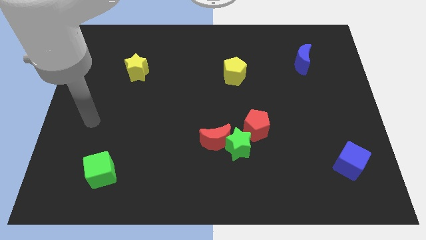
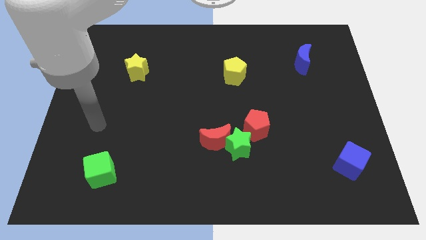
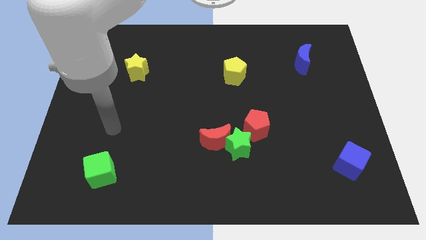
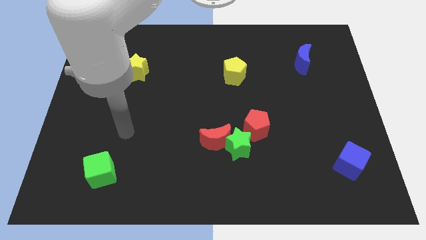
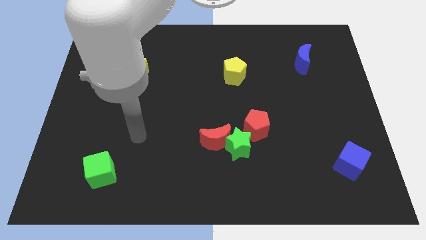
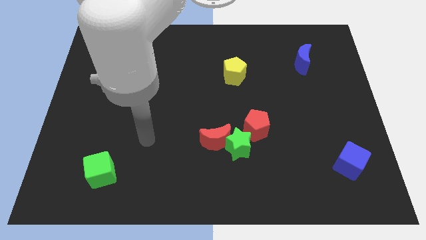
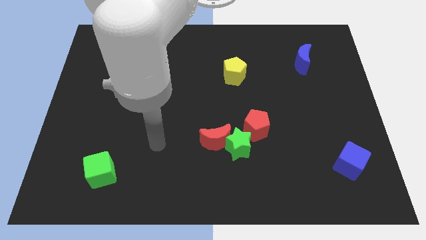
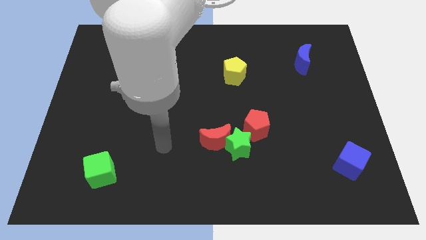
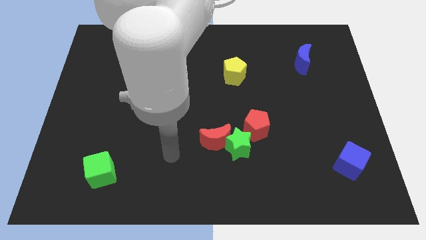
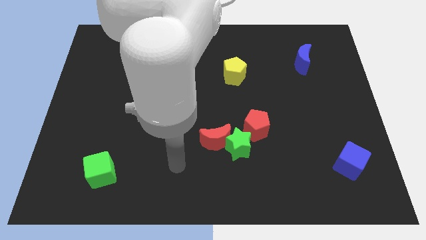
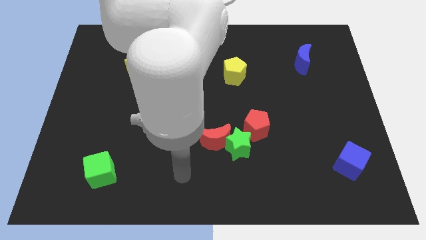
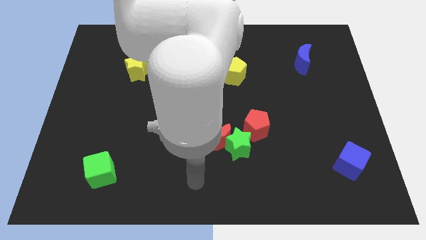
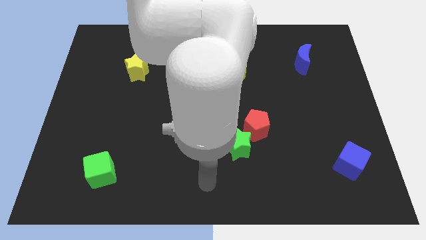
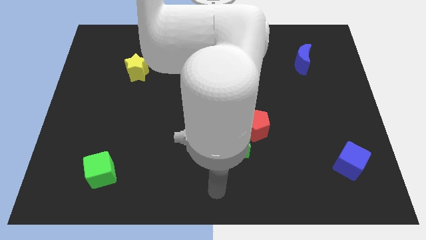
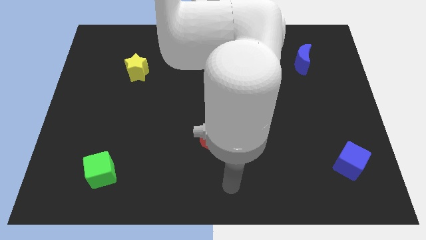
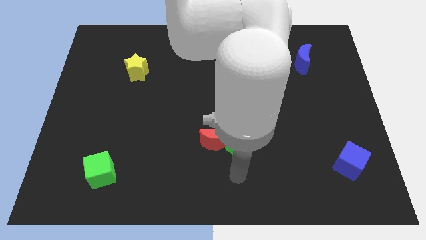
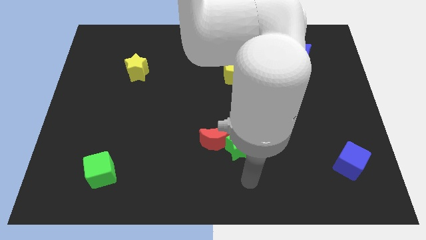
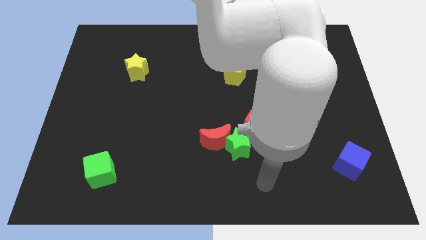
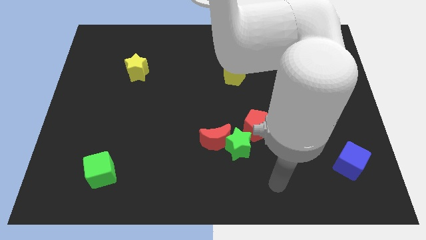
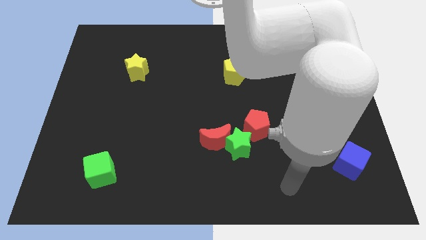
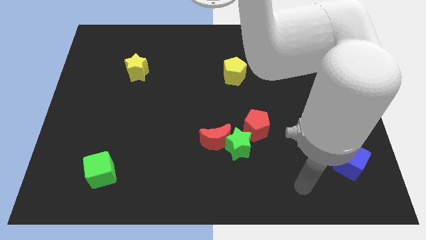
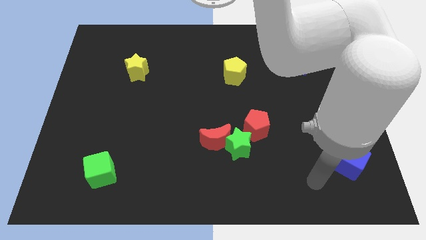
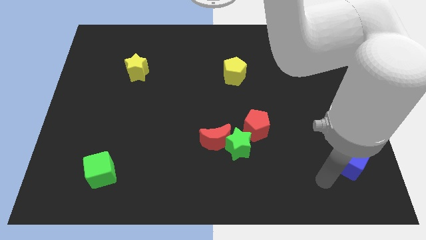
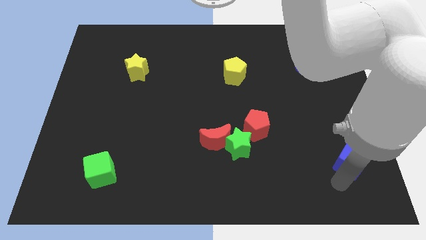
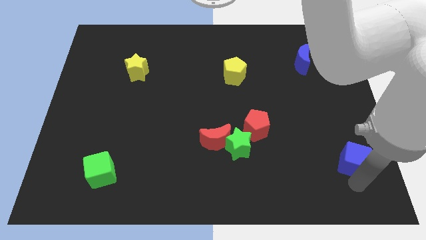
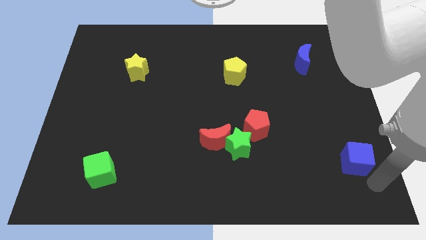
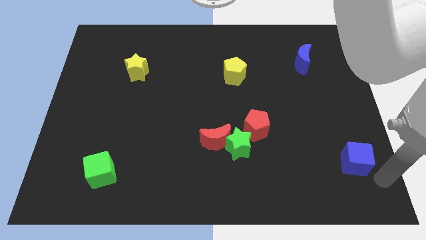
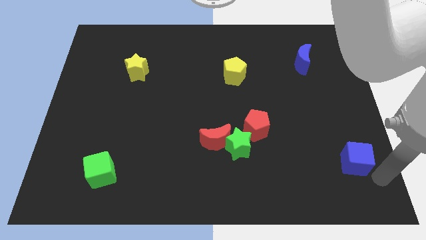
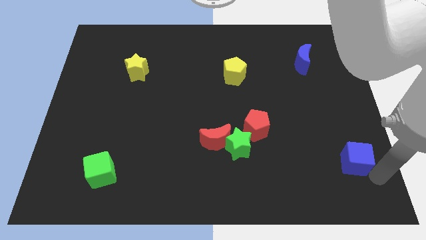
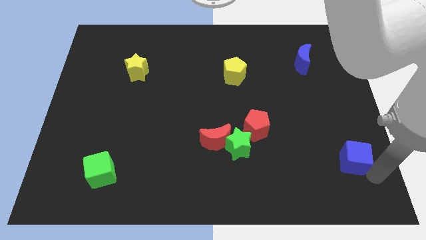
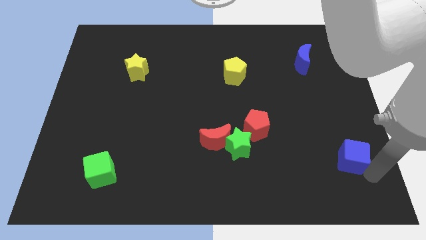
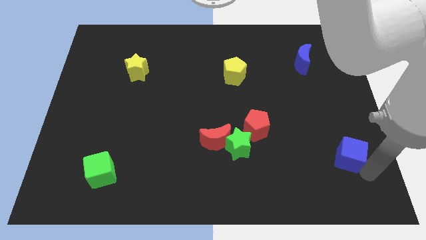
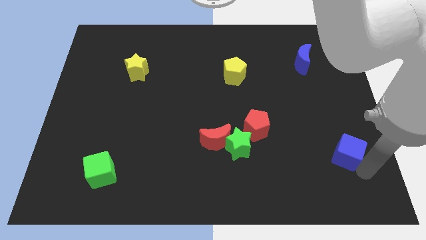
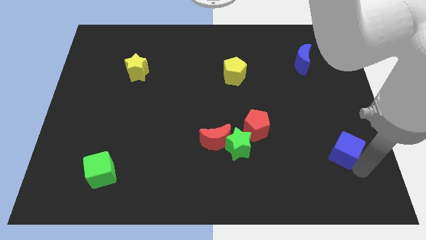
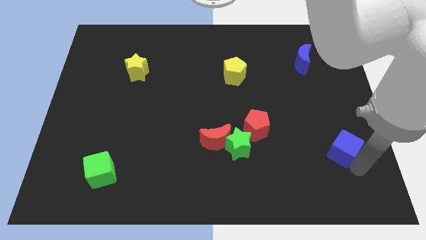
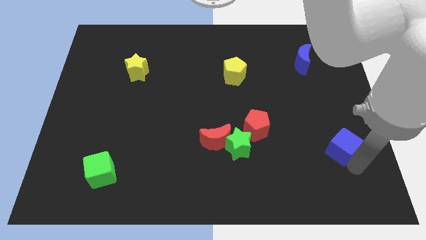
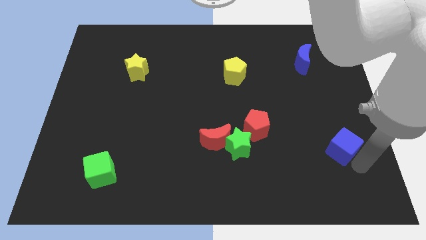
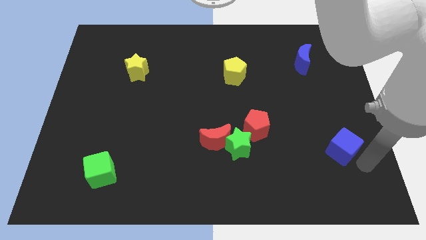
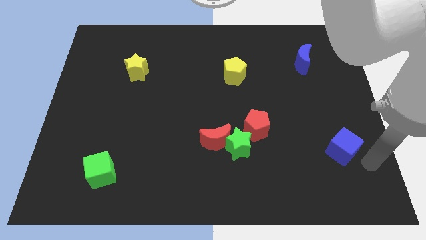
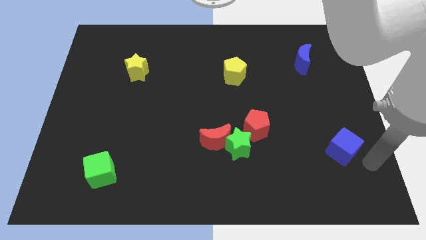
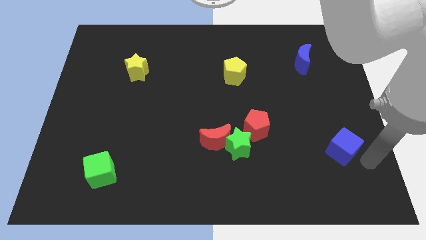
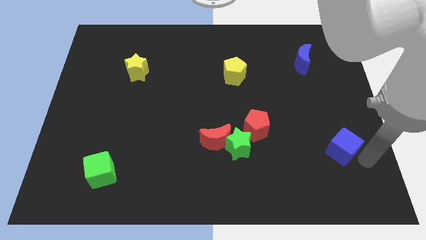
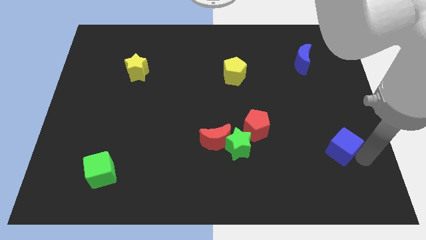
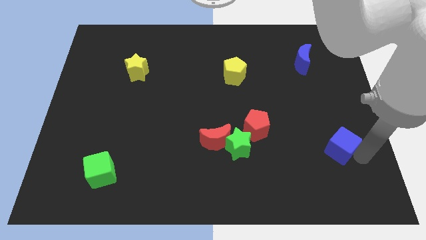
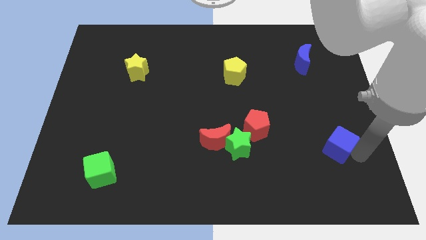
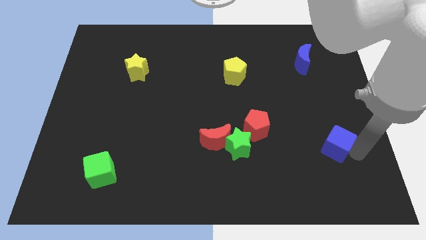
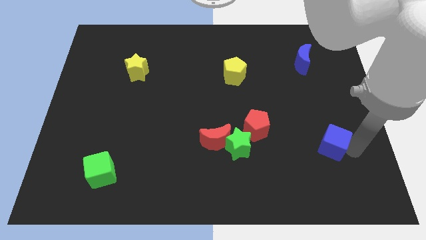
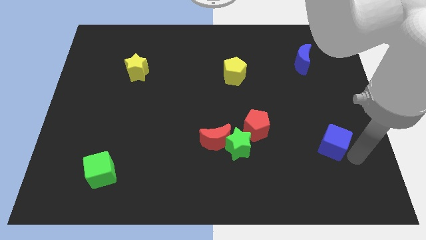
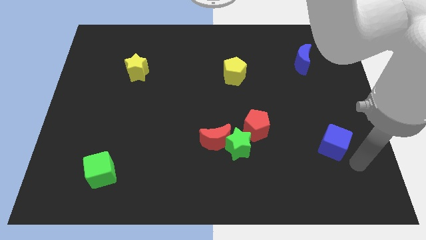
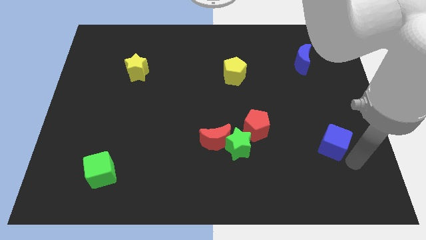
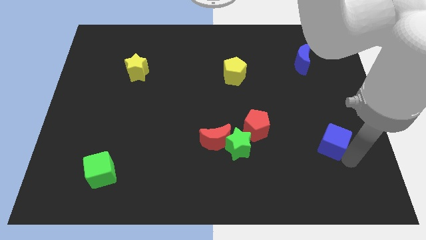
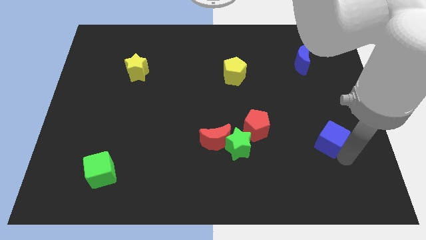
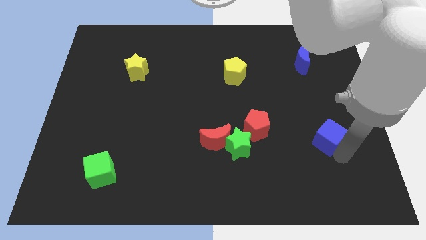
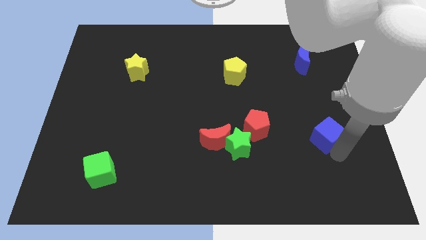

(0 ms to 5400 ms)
move the blue cube somewhat upwards and left

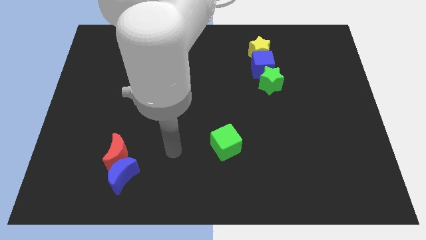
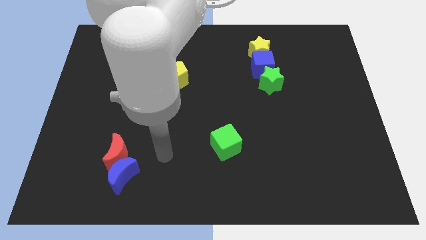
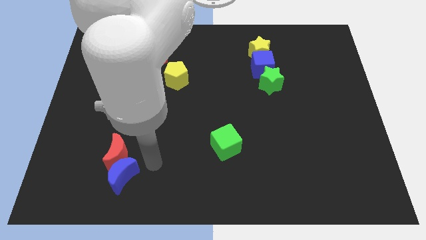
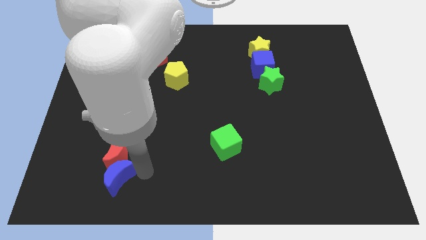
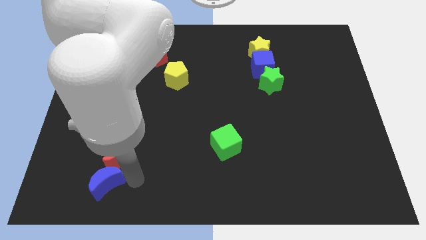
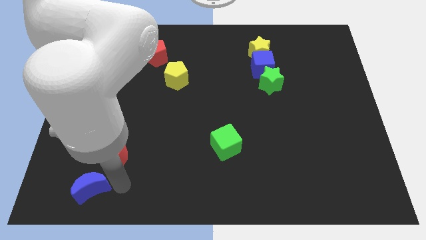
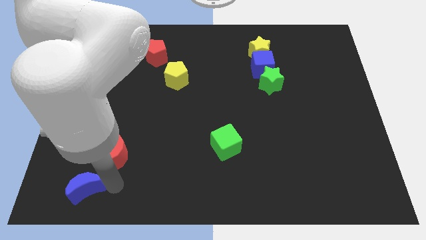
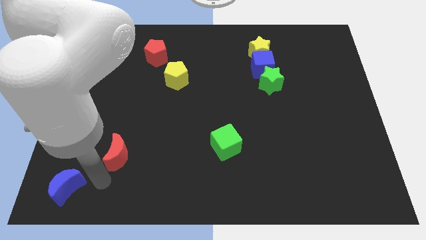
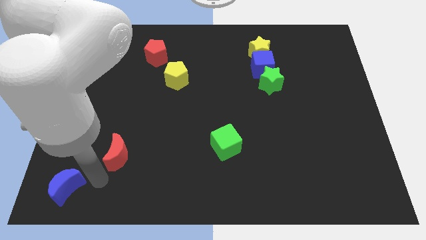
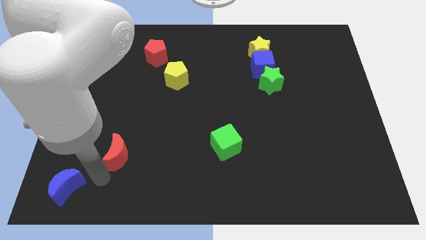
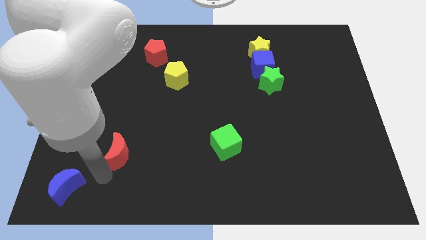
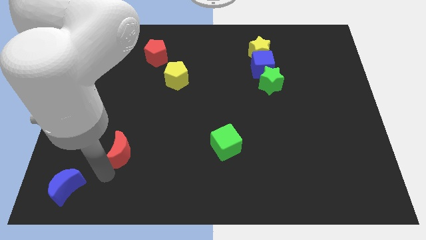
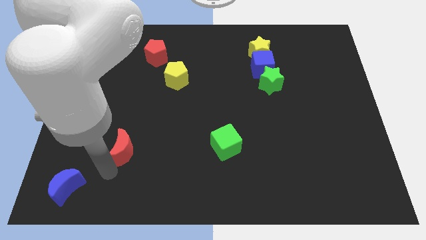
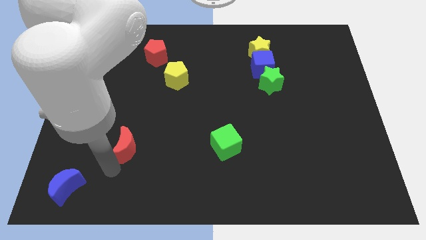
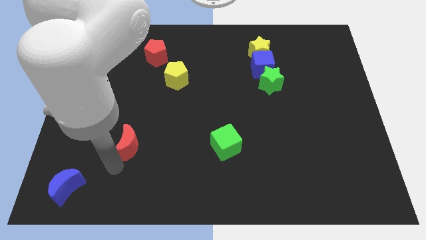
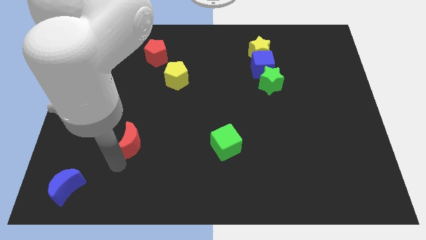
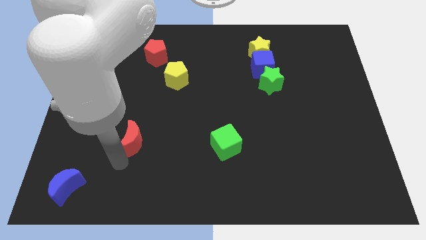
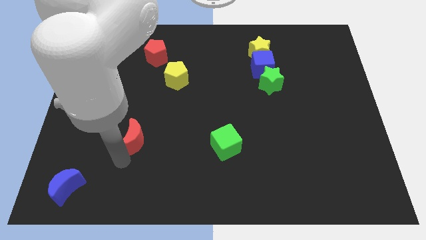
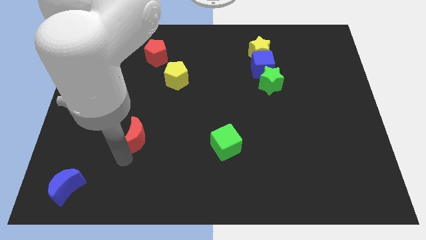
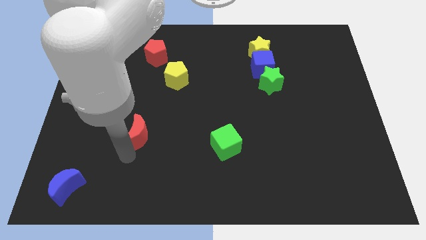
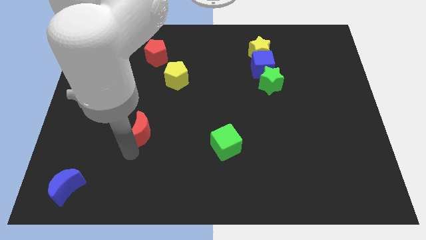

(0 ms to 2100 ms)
slightly push the red moon up and then to the right

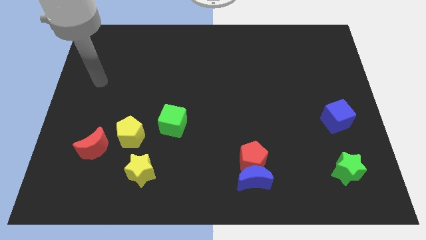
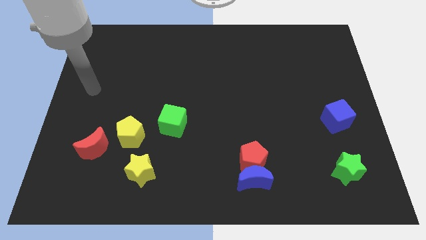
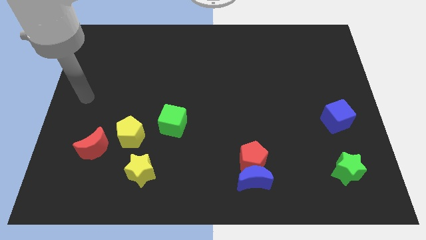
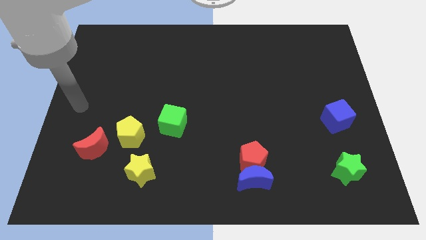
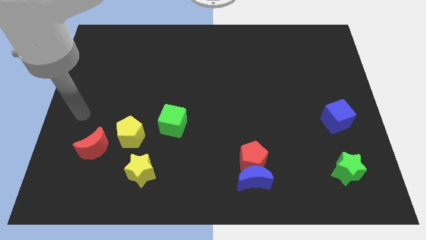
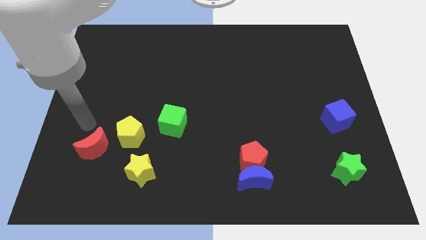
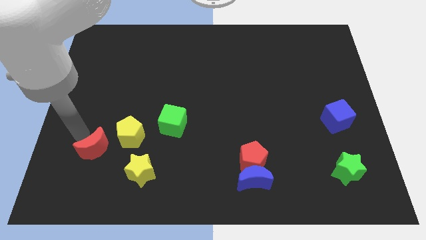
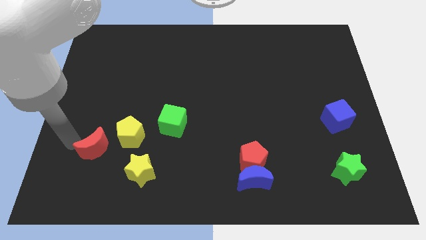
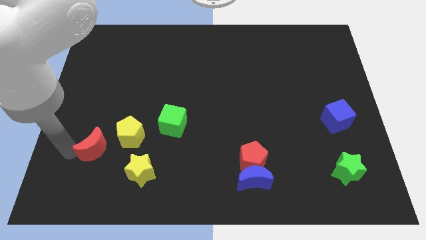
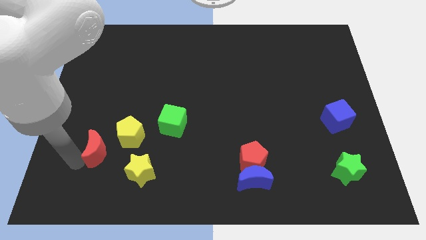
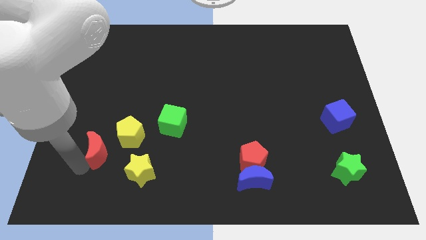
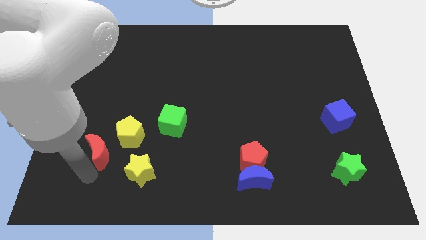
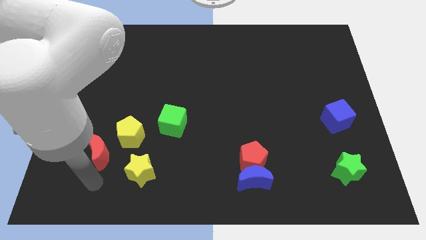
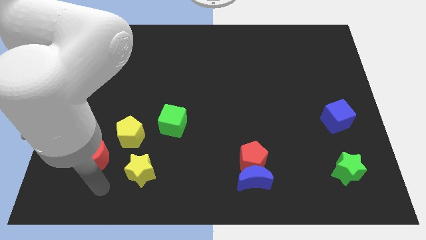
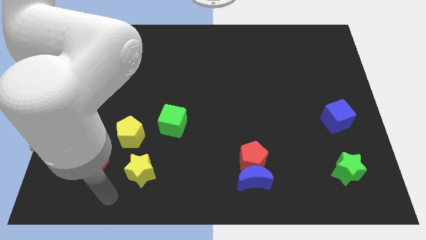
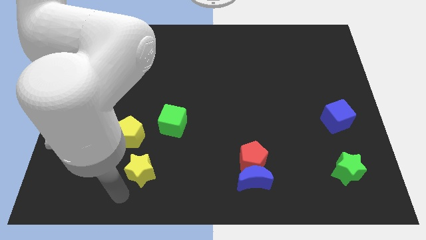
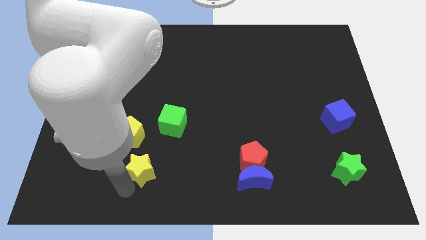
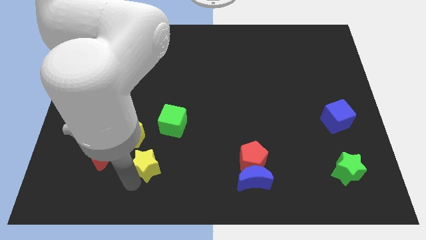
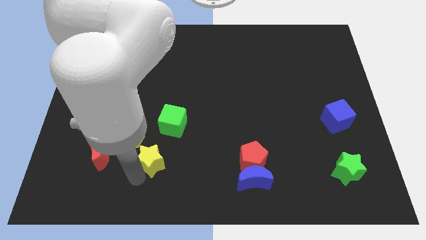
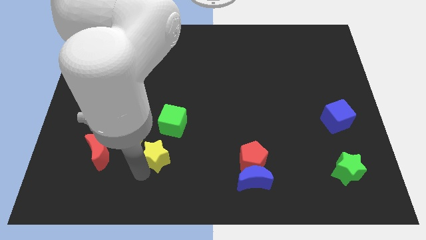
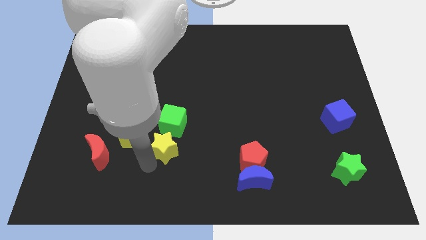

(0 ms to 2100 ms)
push the yellow star a little bit diagonally upwards and right
